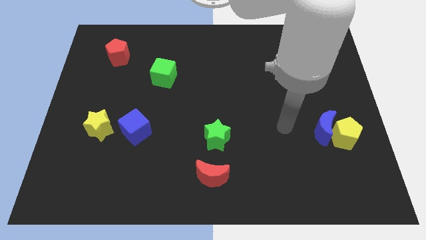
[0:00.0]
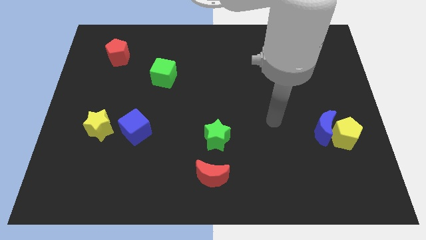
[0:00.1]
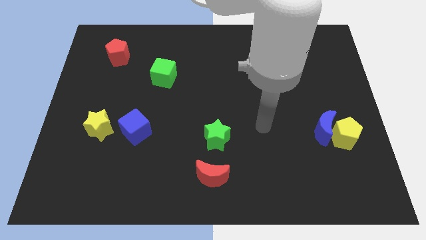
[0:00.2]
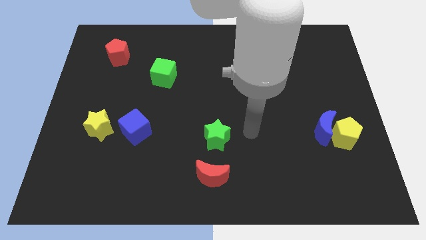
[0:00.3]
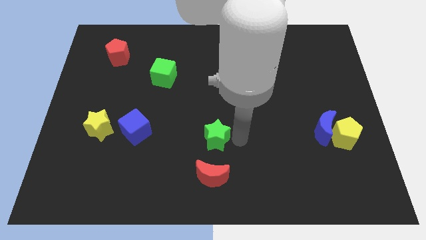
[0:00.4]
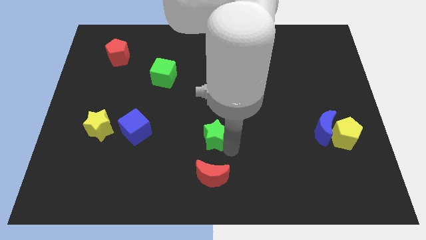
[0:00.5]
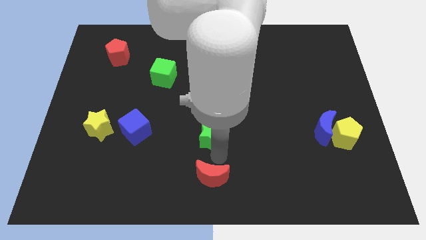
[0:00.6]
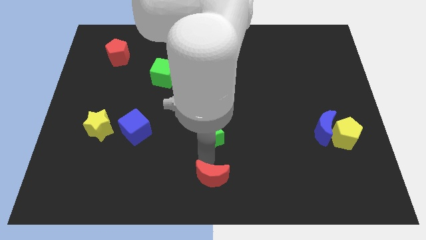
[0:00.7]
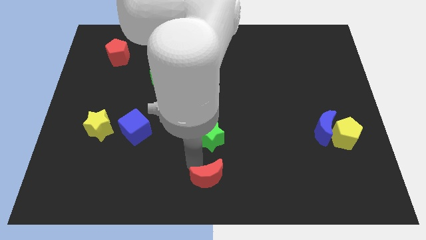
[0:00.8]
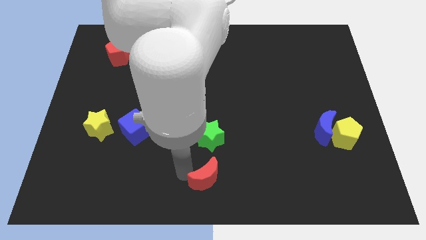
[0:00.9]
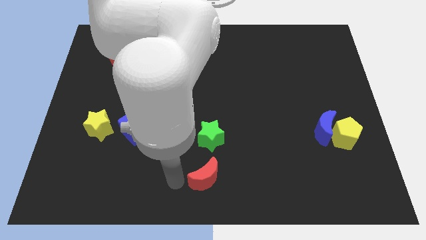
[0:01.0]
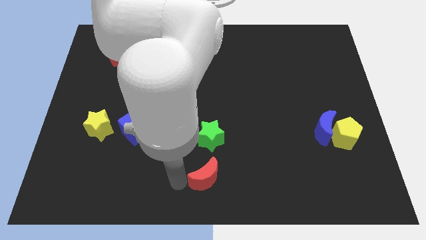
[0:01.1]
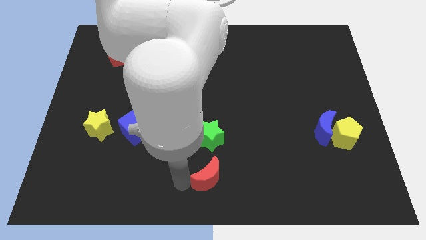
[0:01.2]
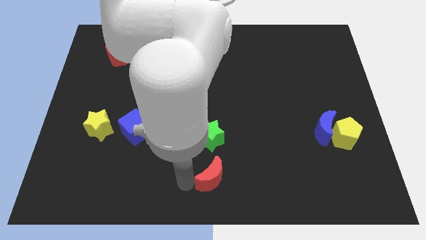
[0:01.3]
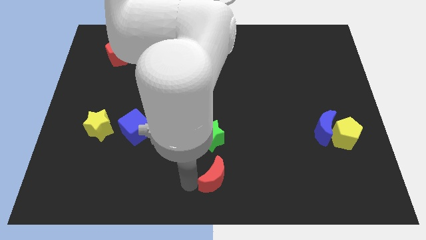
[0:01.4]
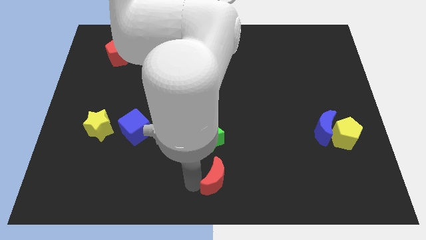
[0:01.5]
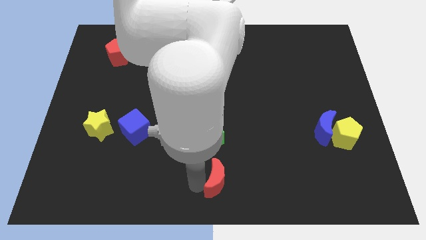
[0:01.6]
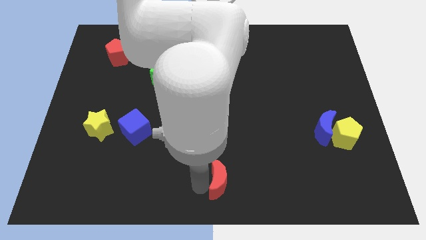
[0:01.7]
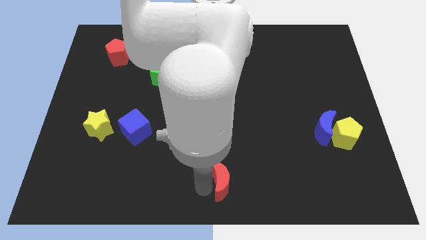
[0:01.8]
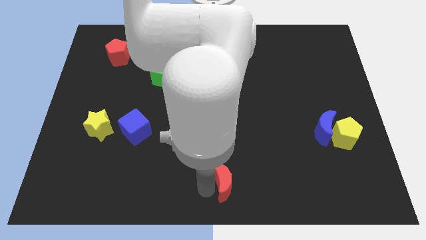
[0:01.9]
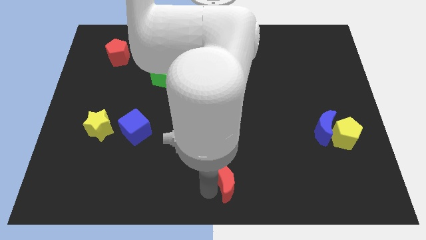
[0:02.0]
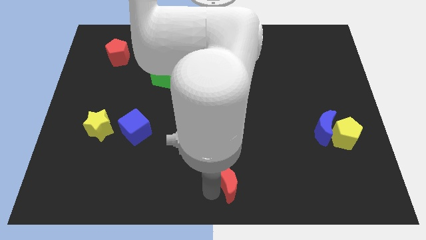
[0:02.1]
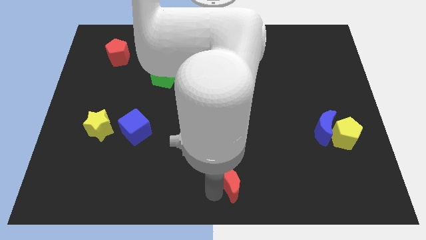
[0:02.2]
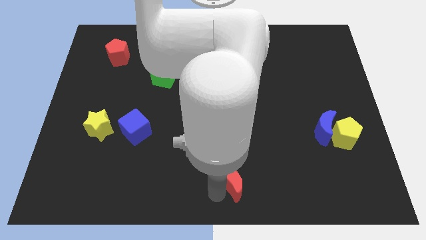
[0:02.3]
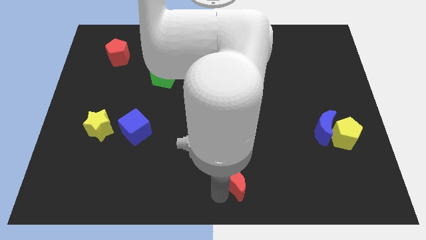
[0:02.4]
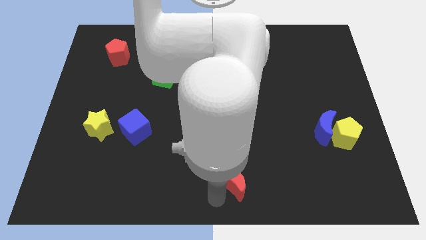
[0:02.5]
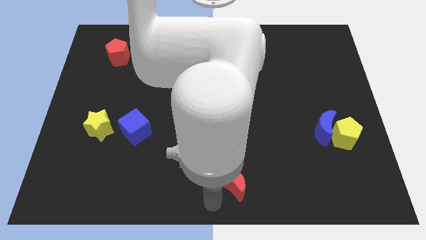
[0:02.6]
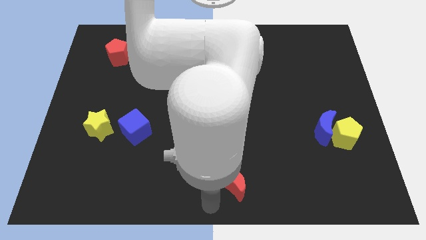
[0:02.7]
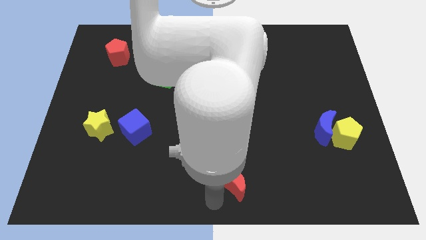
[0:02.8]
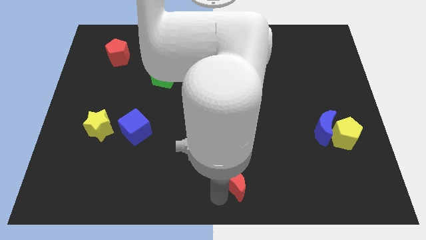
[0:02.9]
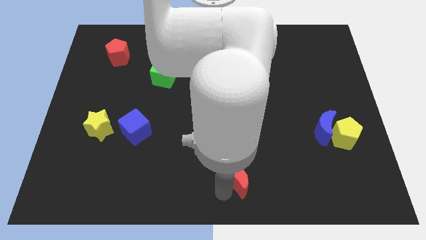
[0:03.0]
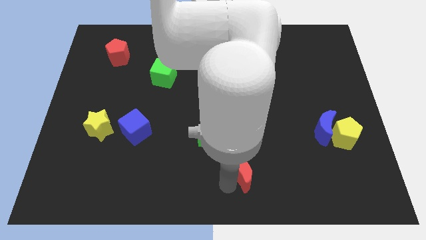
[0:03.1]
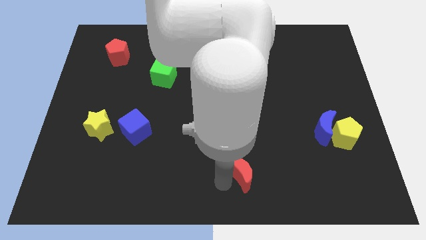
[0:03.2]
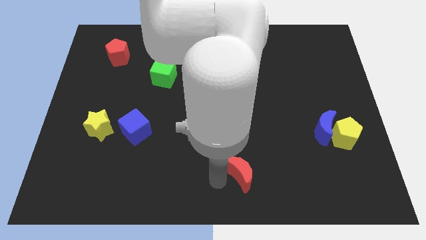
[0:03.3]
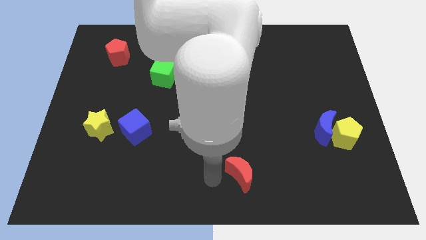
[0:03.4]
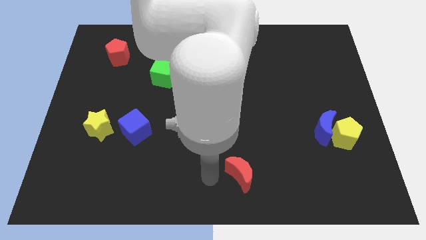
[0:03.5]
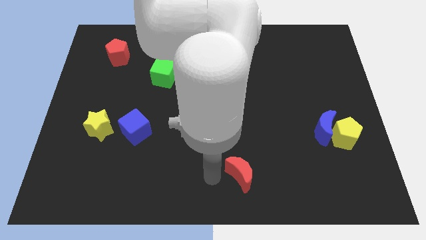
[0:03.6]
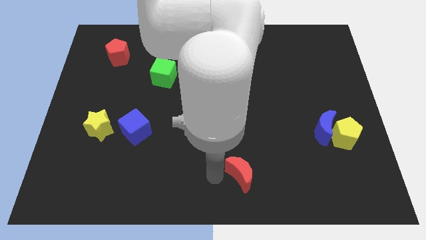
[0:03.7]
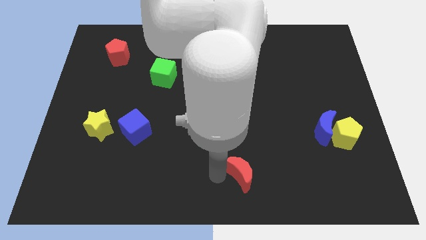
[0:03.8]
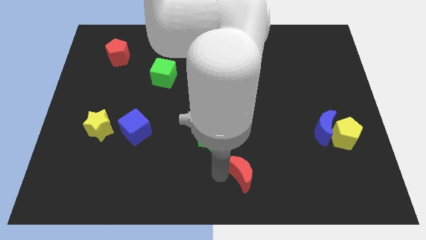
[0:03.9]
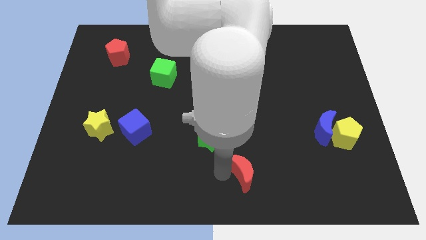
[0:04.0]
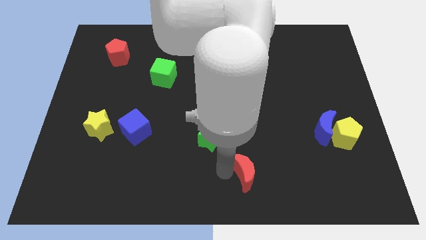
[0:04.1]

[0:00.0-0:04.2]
slightly move the red moon right

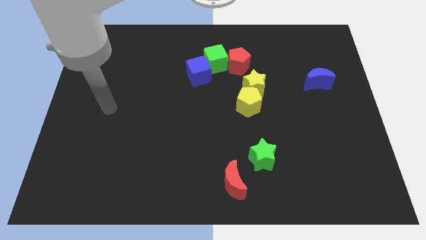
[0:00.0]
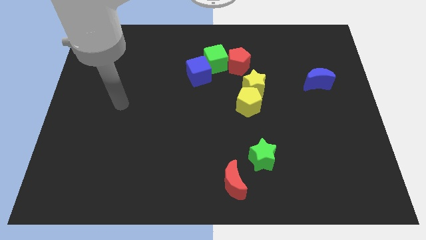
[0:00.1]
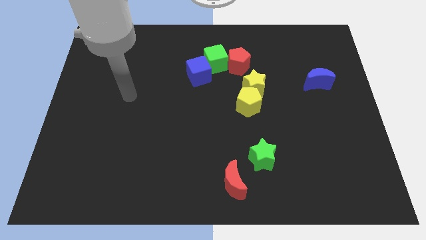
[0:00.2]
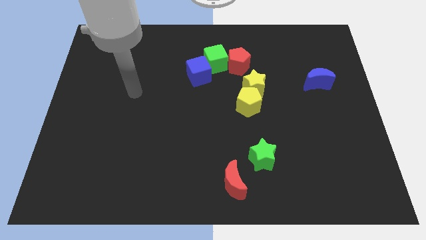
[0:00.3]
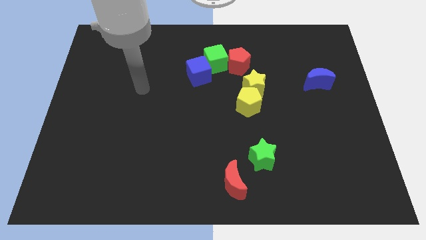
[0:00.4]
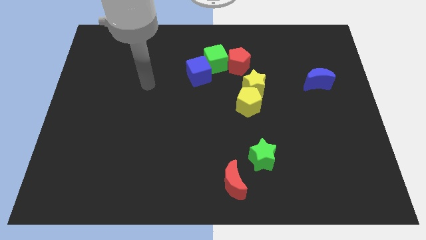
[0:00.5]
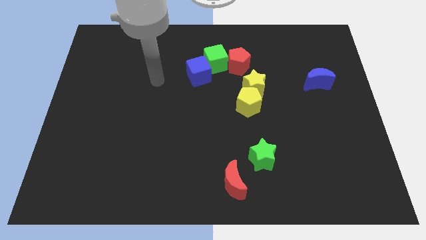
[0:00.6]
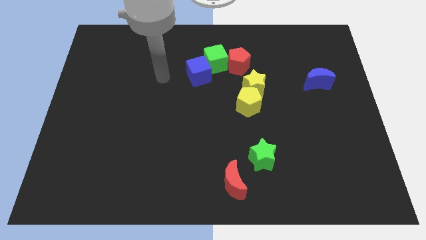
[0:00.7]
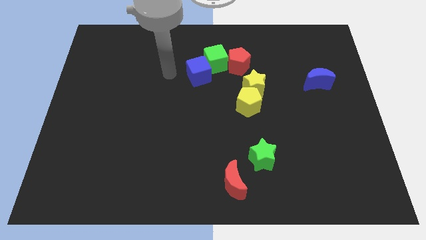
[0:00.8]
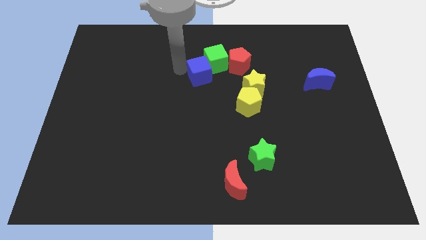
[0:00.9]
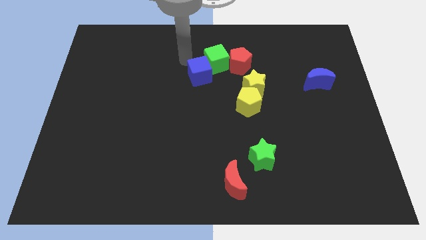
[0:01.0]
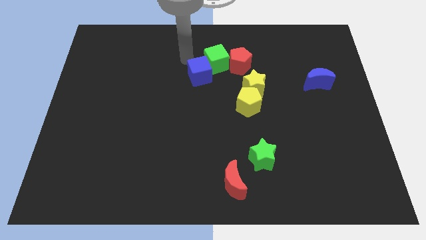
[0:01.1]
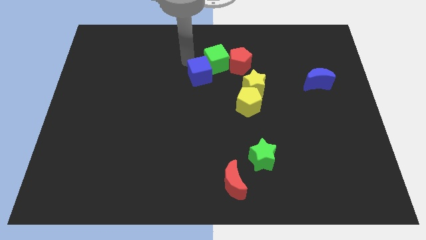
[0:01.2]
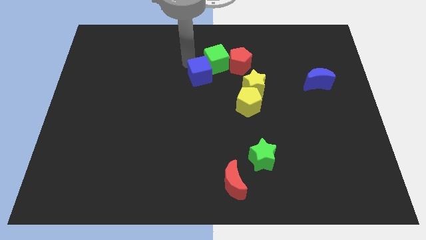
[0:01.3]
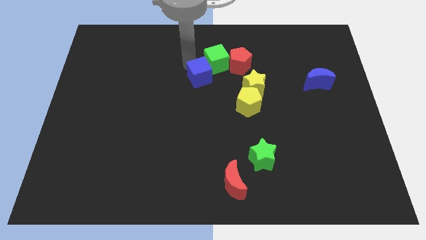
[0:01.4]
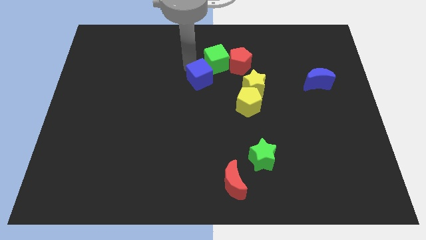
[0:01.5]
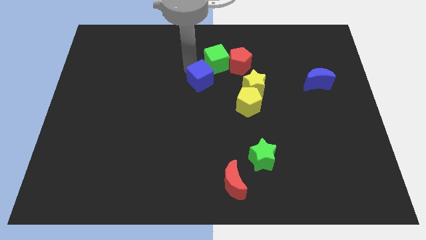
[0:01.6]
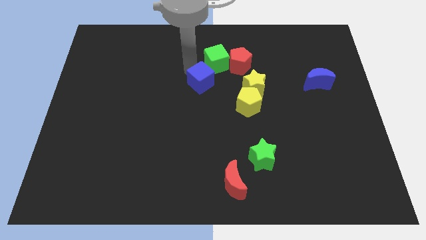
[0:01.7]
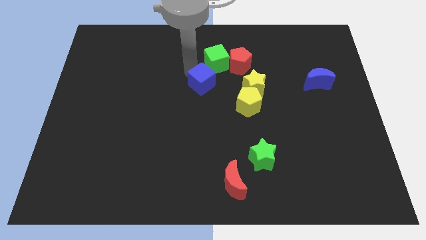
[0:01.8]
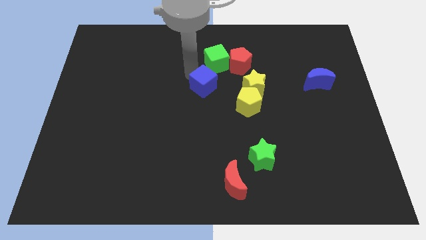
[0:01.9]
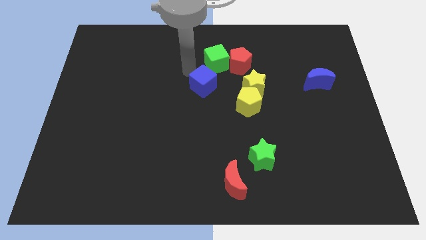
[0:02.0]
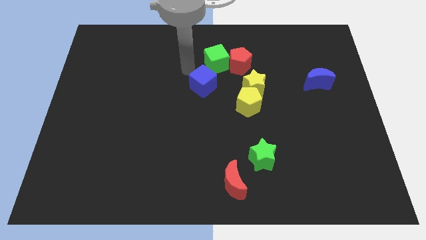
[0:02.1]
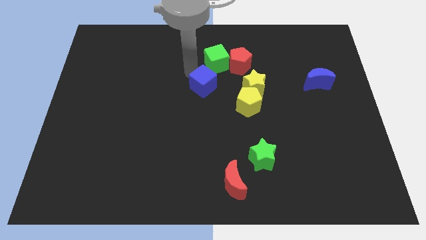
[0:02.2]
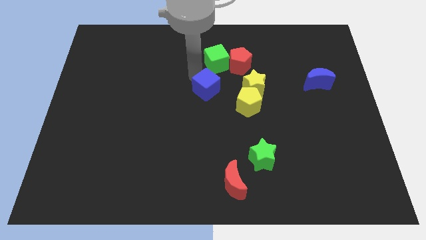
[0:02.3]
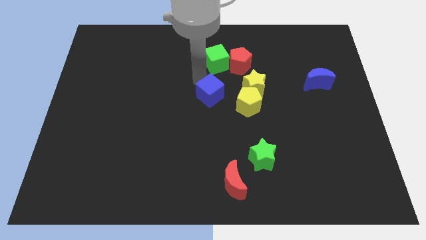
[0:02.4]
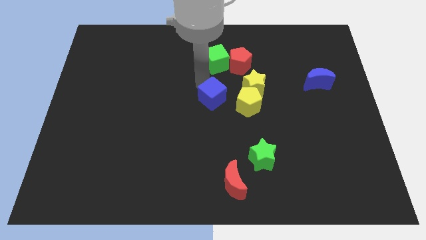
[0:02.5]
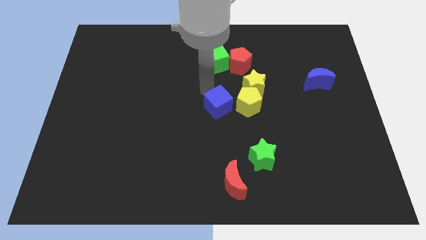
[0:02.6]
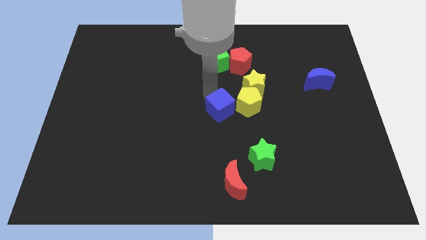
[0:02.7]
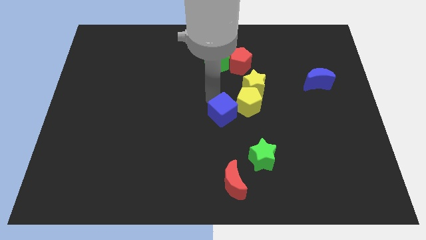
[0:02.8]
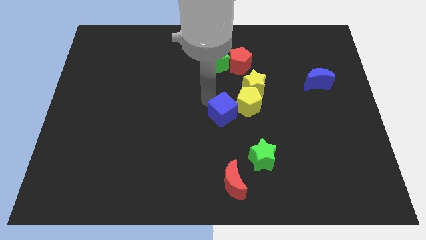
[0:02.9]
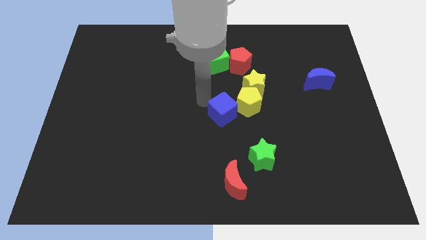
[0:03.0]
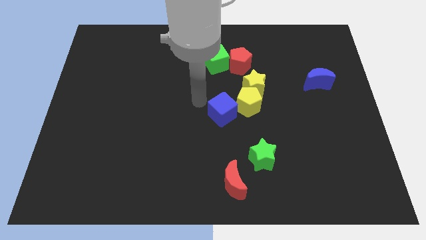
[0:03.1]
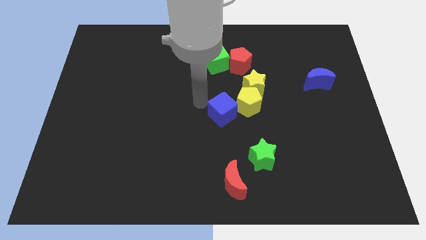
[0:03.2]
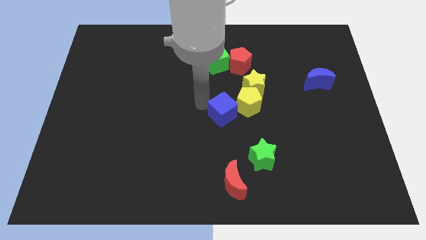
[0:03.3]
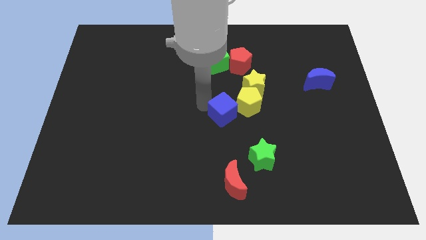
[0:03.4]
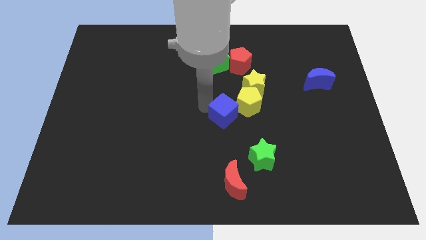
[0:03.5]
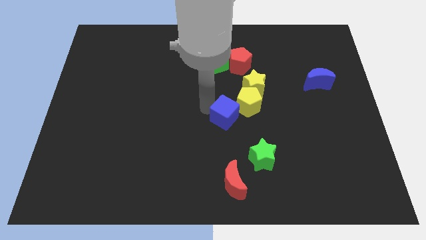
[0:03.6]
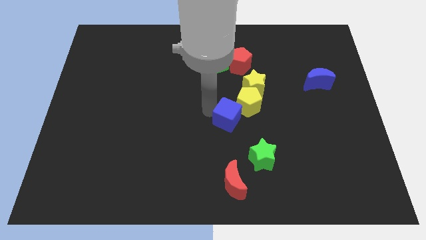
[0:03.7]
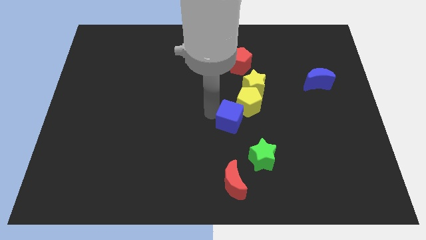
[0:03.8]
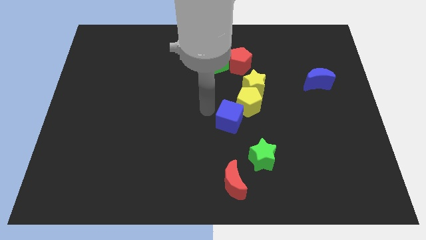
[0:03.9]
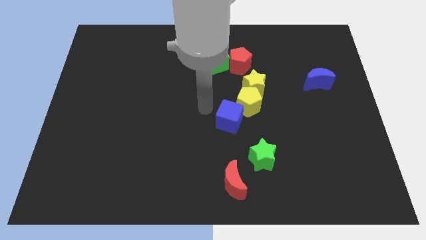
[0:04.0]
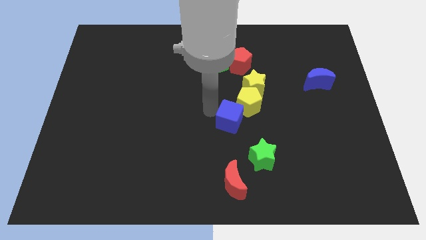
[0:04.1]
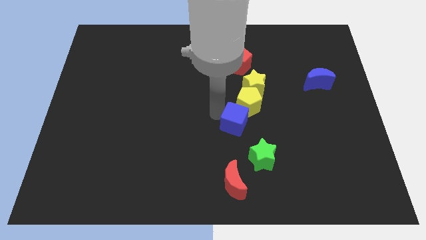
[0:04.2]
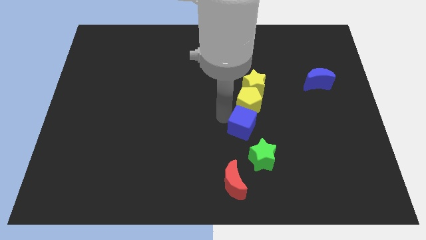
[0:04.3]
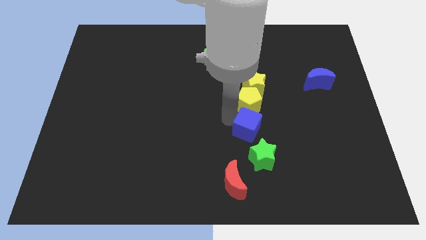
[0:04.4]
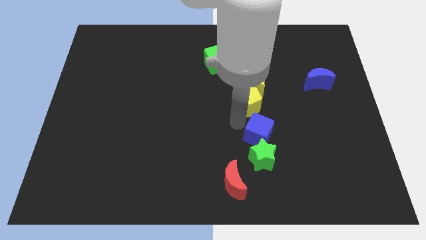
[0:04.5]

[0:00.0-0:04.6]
move the blue cube downwards and right
